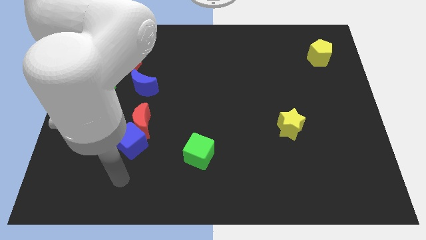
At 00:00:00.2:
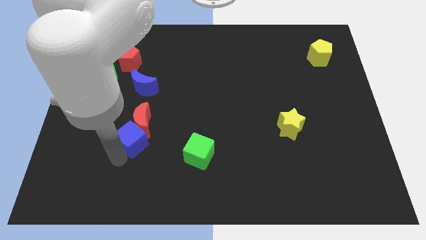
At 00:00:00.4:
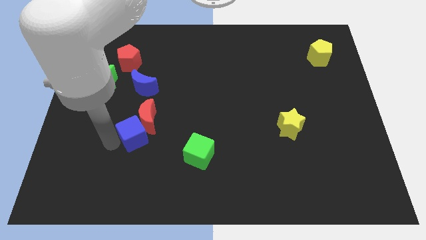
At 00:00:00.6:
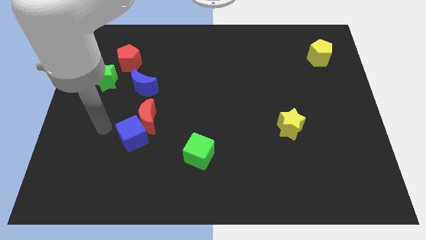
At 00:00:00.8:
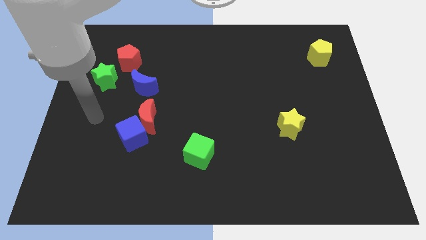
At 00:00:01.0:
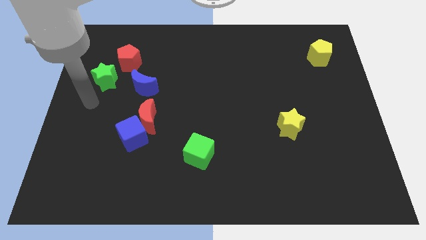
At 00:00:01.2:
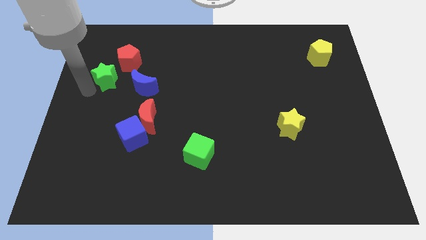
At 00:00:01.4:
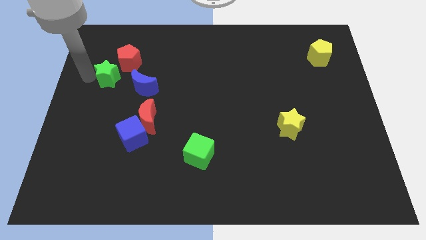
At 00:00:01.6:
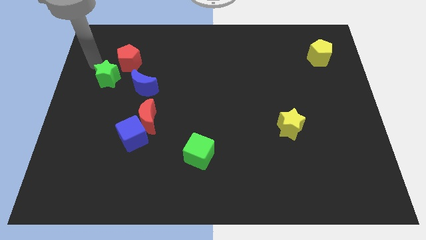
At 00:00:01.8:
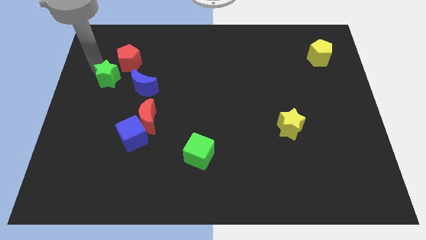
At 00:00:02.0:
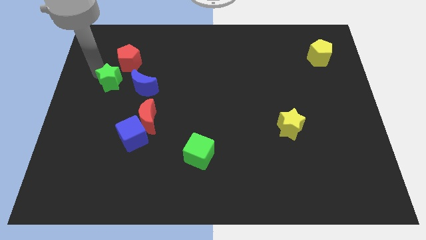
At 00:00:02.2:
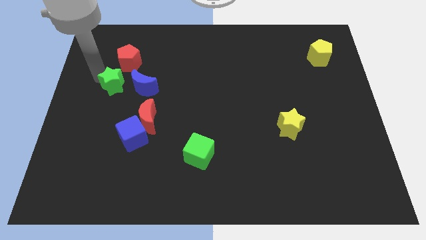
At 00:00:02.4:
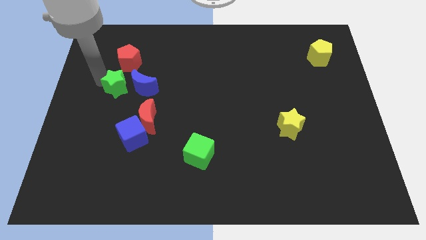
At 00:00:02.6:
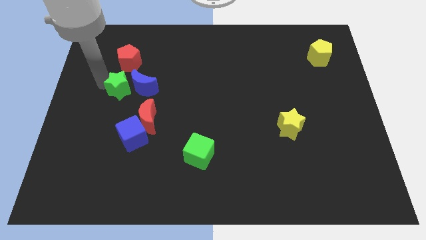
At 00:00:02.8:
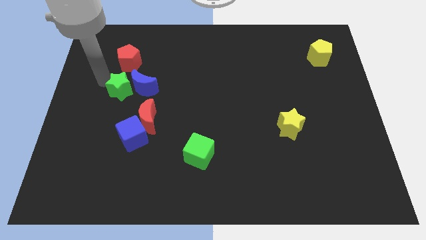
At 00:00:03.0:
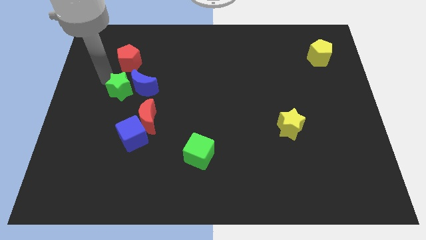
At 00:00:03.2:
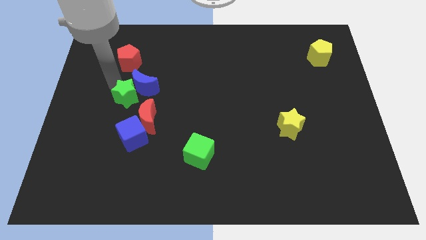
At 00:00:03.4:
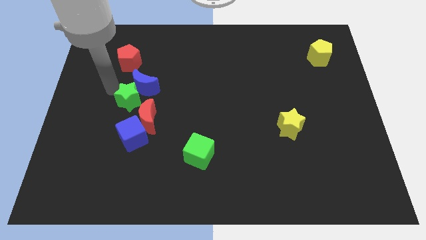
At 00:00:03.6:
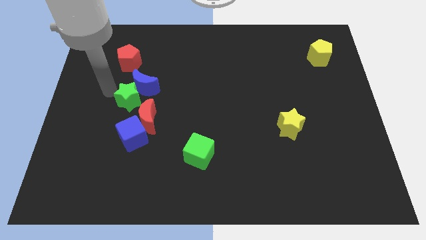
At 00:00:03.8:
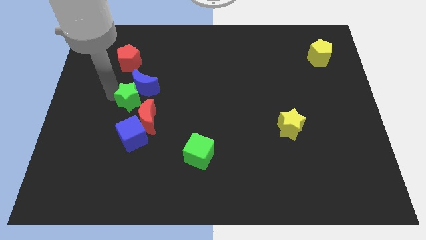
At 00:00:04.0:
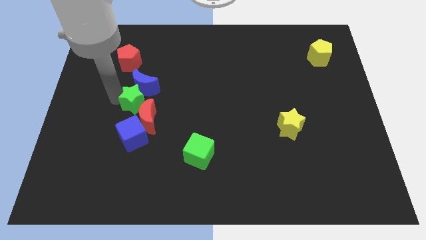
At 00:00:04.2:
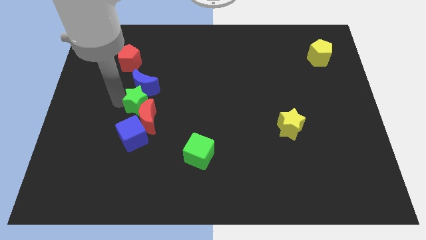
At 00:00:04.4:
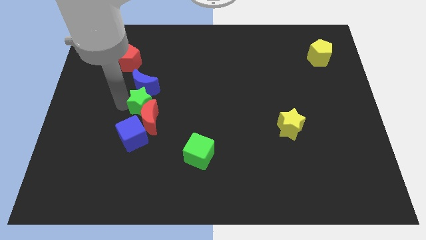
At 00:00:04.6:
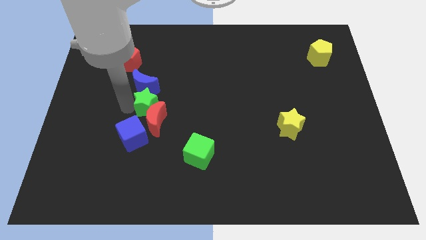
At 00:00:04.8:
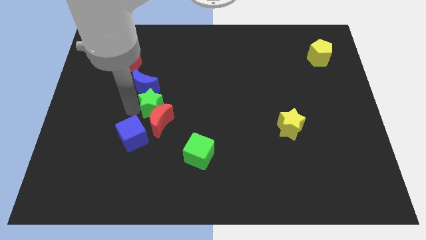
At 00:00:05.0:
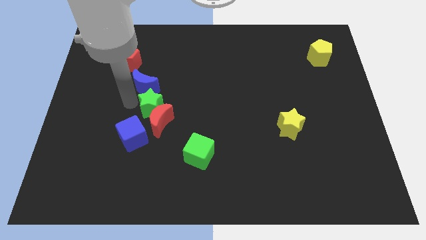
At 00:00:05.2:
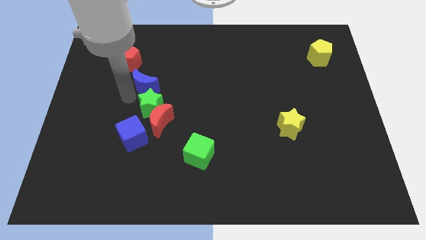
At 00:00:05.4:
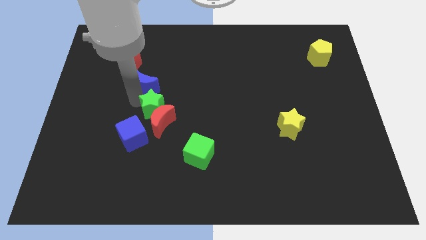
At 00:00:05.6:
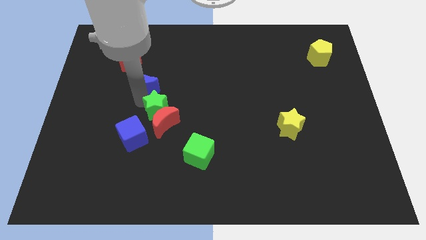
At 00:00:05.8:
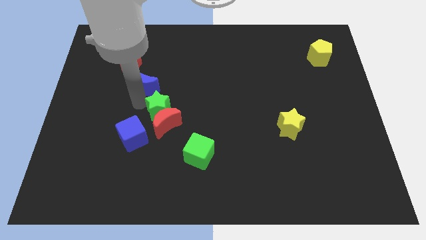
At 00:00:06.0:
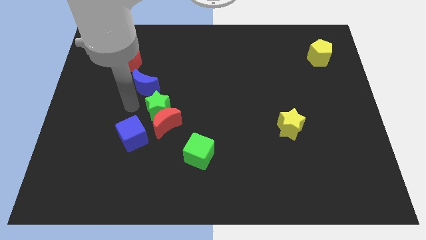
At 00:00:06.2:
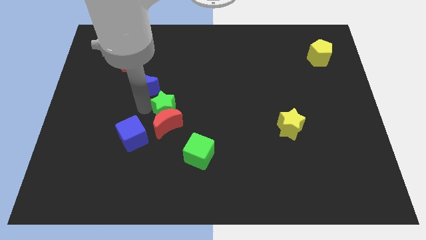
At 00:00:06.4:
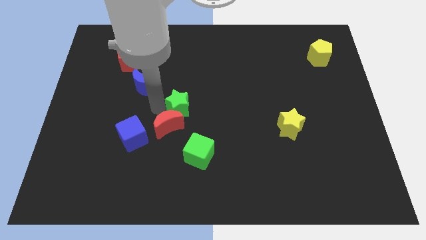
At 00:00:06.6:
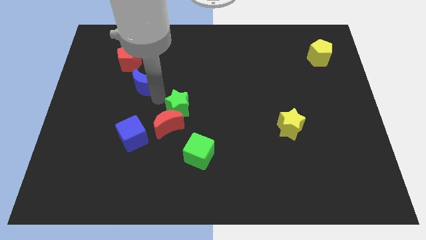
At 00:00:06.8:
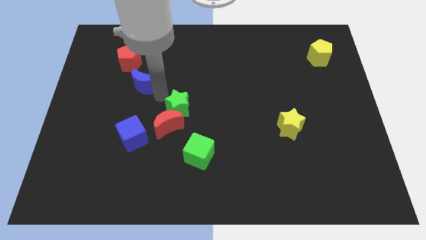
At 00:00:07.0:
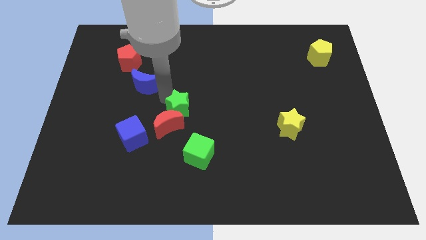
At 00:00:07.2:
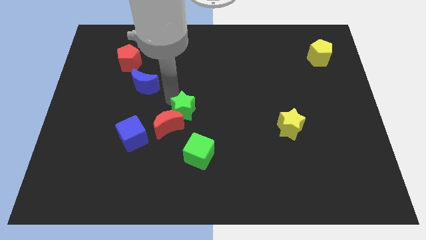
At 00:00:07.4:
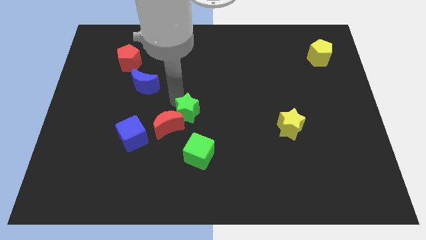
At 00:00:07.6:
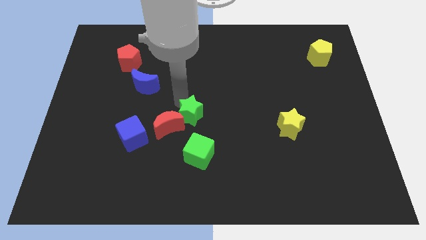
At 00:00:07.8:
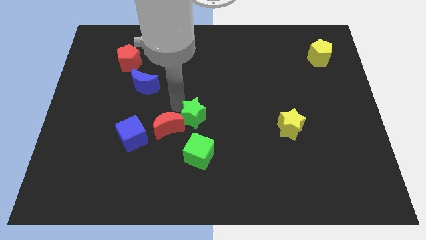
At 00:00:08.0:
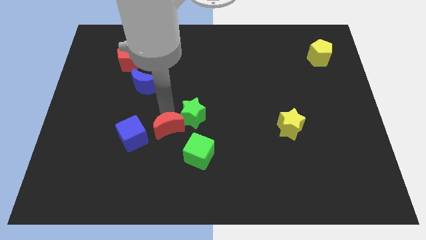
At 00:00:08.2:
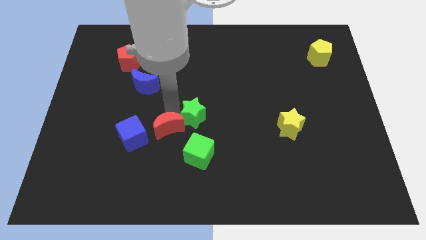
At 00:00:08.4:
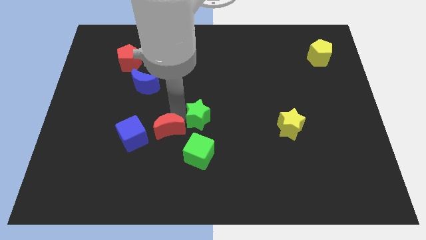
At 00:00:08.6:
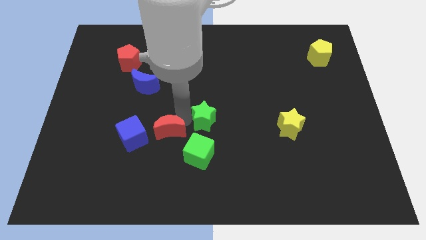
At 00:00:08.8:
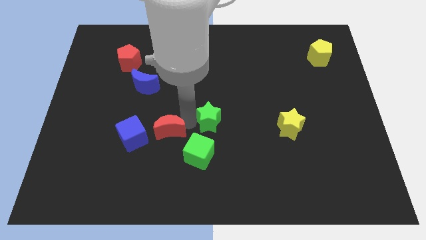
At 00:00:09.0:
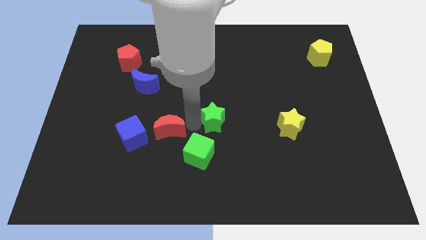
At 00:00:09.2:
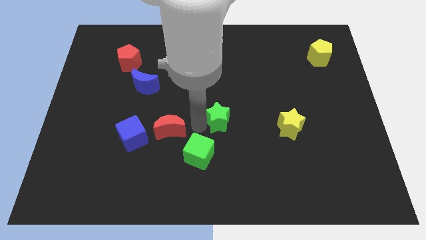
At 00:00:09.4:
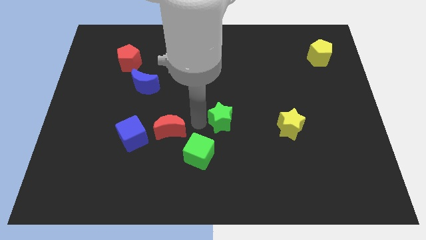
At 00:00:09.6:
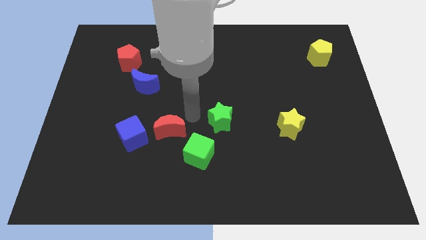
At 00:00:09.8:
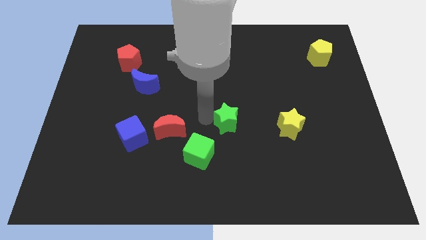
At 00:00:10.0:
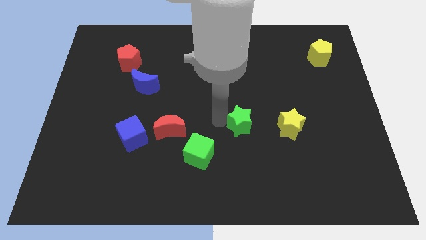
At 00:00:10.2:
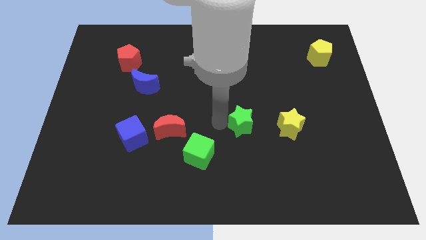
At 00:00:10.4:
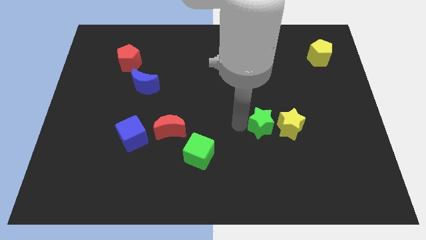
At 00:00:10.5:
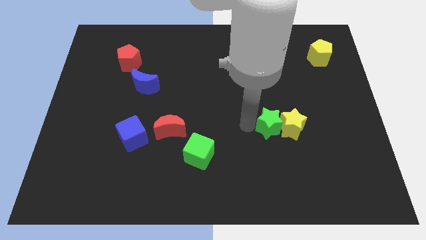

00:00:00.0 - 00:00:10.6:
put the green star next to the yellow star

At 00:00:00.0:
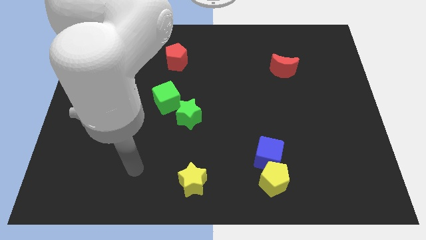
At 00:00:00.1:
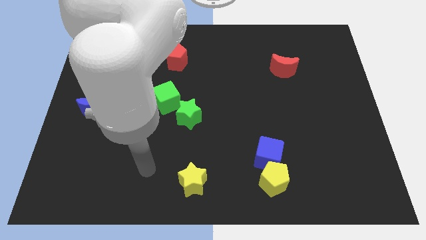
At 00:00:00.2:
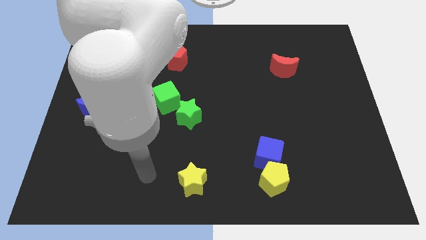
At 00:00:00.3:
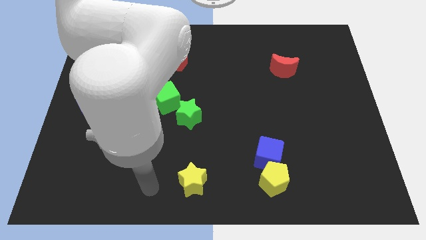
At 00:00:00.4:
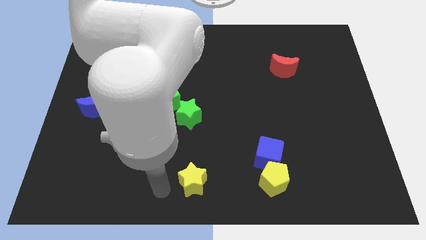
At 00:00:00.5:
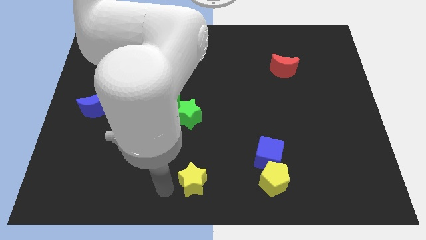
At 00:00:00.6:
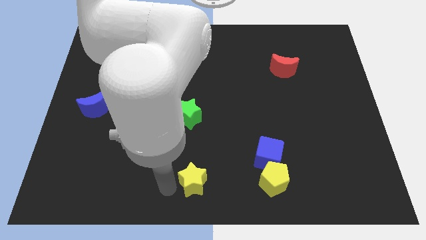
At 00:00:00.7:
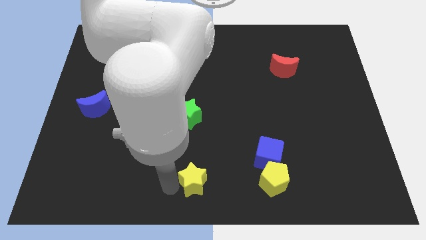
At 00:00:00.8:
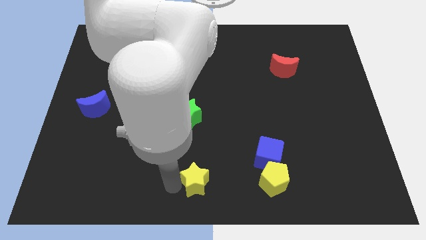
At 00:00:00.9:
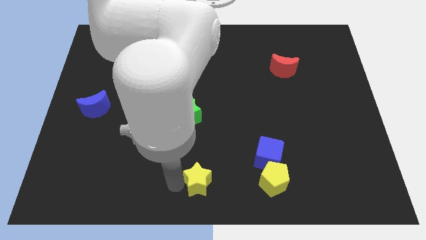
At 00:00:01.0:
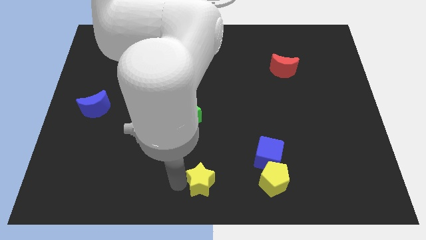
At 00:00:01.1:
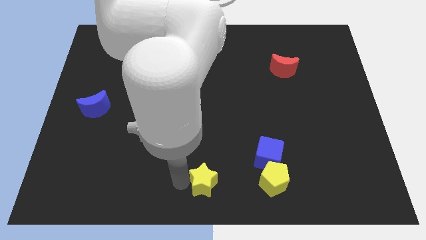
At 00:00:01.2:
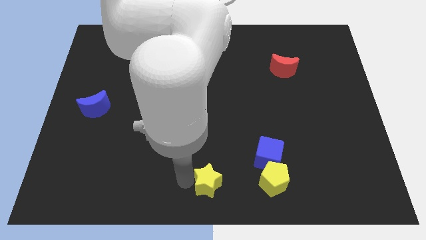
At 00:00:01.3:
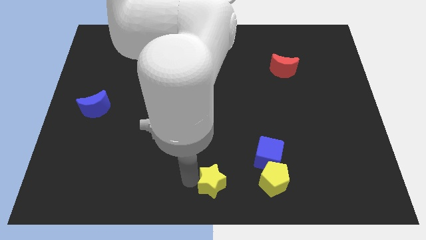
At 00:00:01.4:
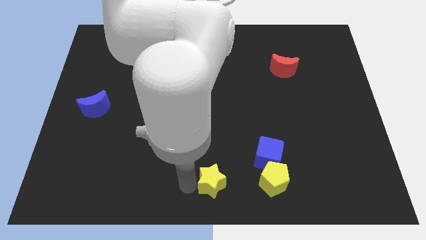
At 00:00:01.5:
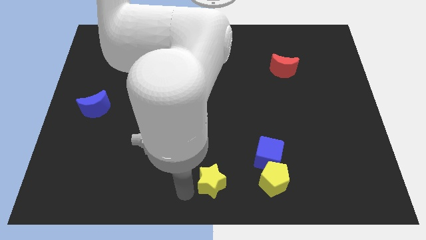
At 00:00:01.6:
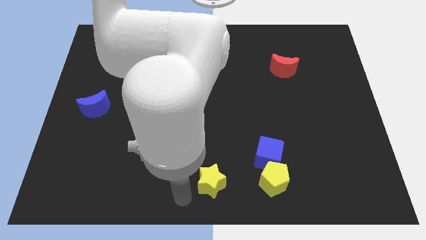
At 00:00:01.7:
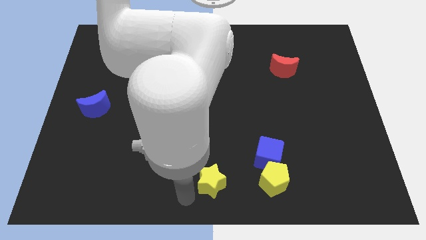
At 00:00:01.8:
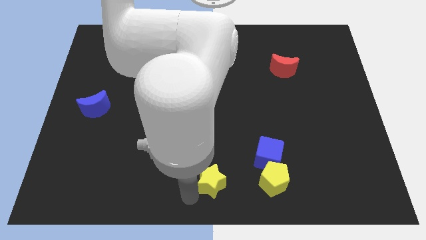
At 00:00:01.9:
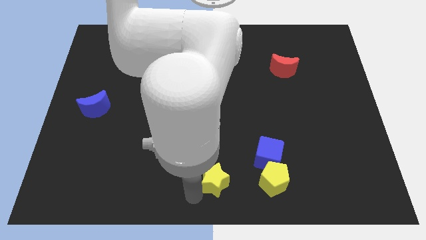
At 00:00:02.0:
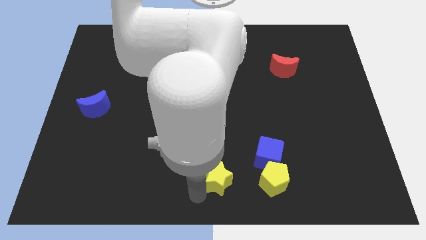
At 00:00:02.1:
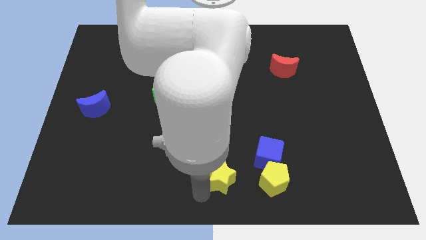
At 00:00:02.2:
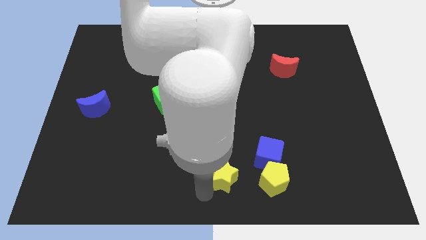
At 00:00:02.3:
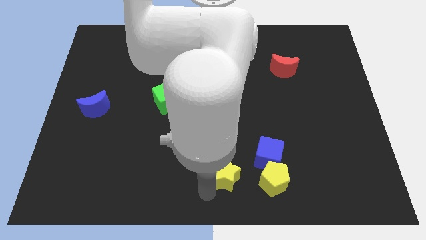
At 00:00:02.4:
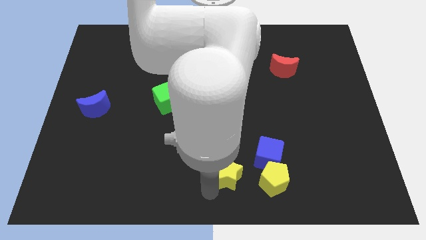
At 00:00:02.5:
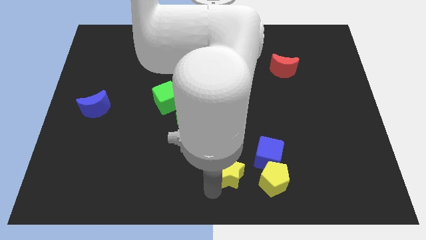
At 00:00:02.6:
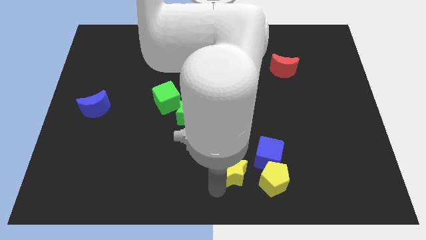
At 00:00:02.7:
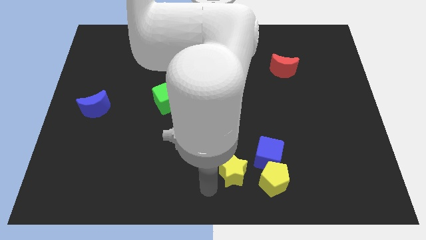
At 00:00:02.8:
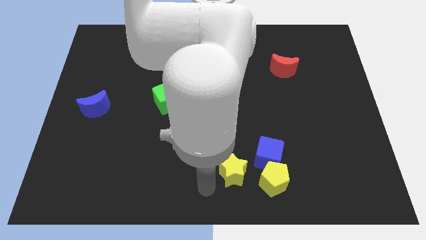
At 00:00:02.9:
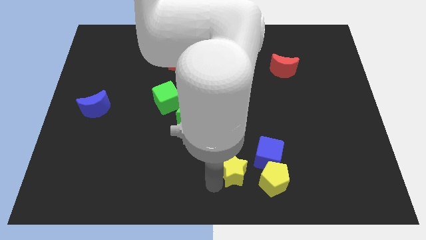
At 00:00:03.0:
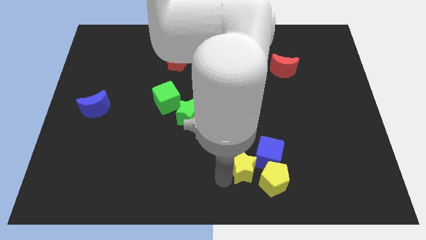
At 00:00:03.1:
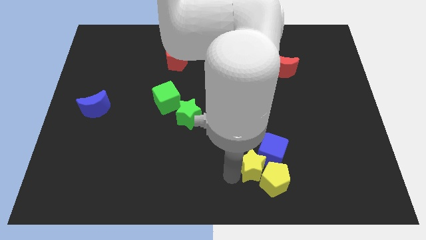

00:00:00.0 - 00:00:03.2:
push the yellow star to the blue cube
